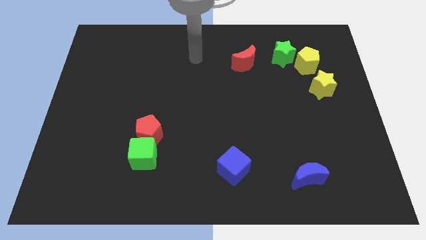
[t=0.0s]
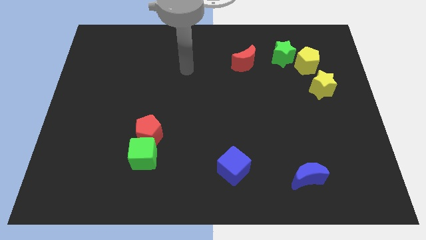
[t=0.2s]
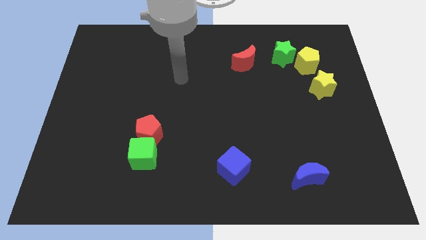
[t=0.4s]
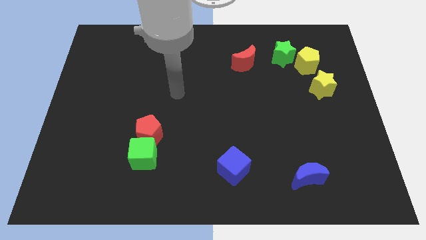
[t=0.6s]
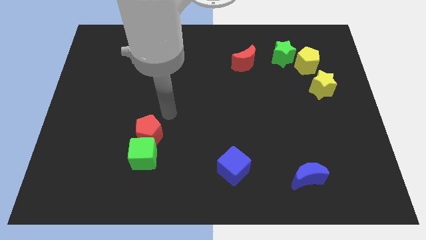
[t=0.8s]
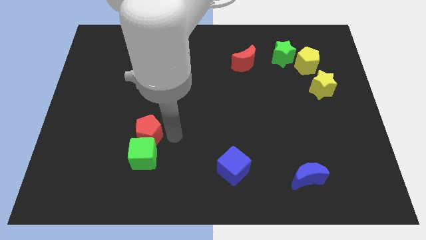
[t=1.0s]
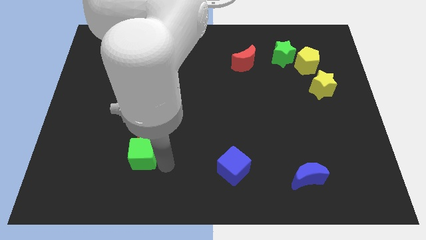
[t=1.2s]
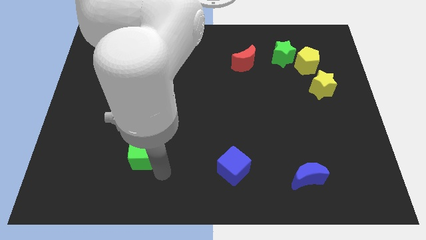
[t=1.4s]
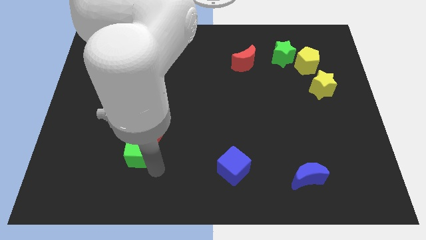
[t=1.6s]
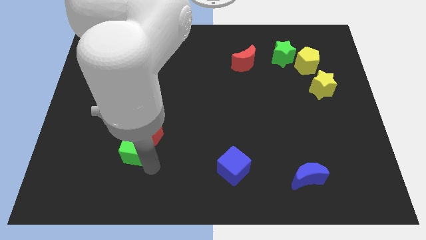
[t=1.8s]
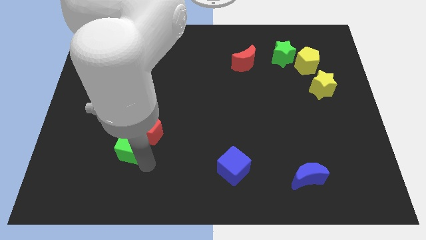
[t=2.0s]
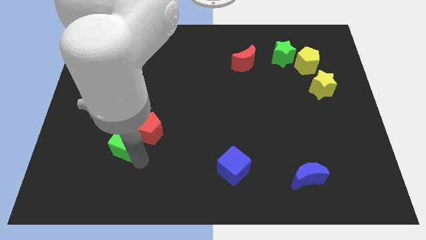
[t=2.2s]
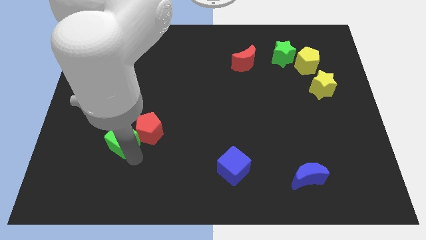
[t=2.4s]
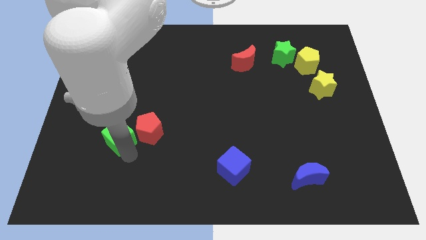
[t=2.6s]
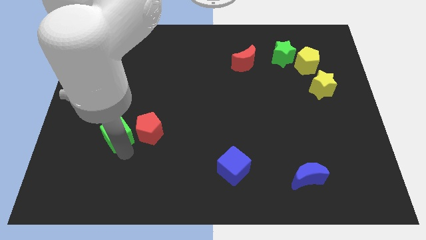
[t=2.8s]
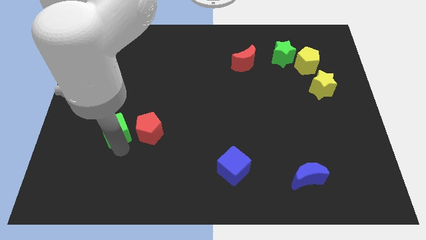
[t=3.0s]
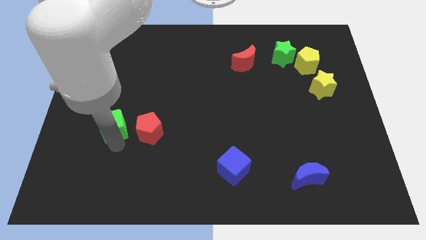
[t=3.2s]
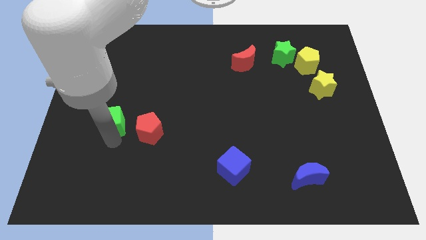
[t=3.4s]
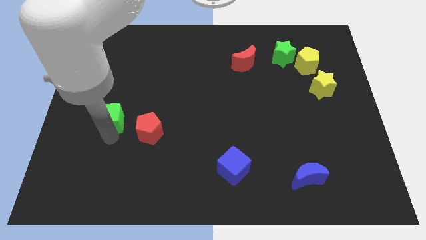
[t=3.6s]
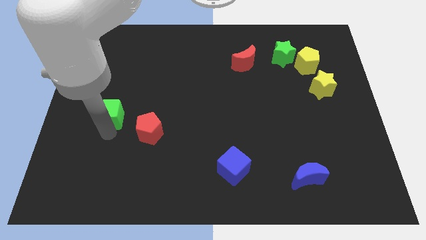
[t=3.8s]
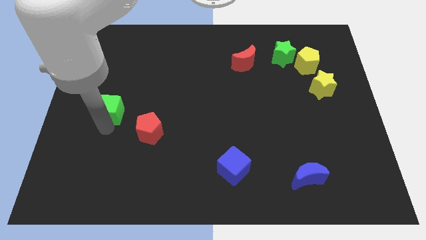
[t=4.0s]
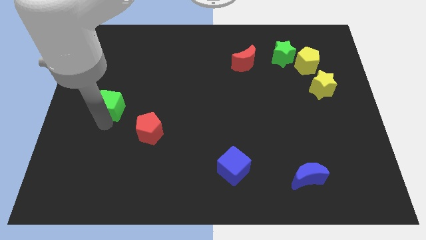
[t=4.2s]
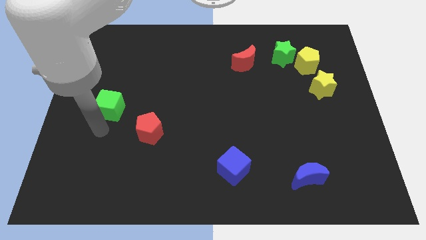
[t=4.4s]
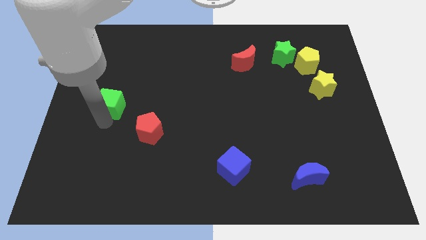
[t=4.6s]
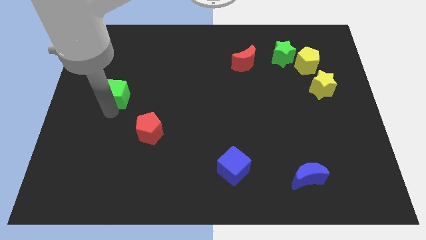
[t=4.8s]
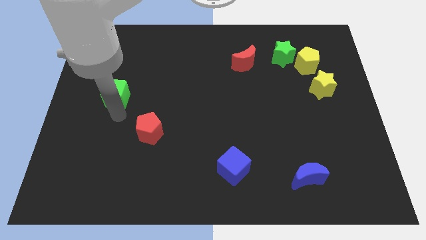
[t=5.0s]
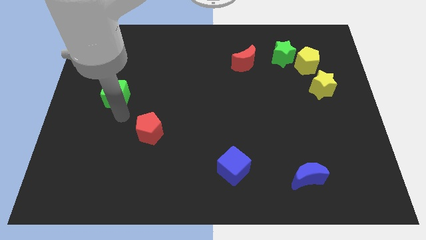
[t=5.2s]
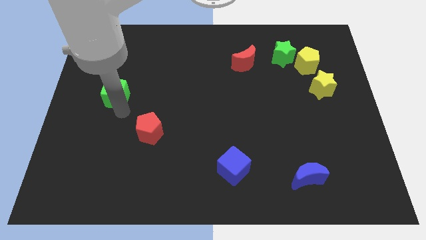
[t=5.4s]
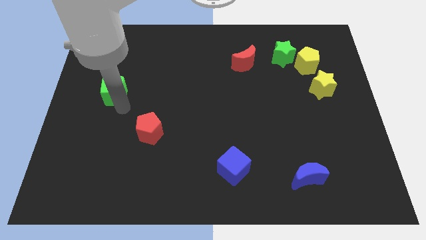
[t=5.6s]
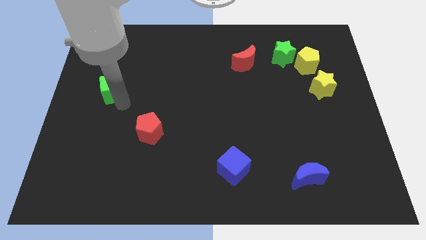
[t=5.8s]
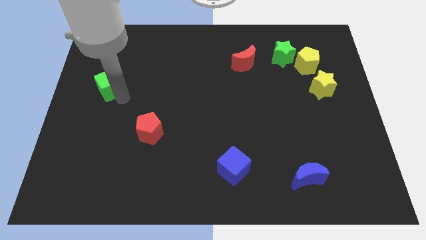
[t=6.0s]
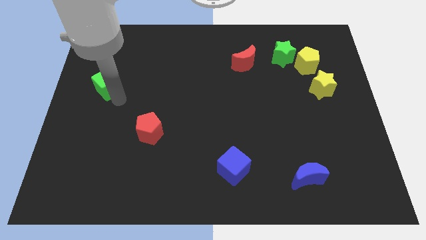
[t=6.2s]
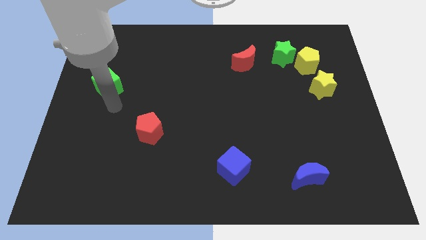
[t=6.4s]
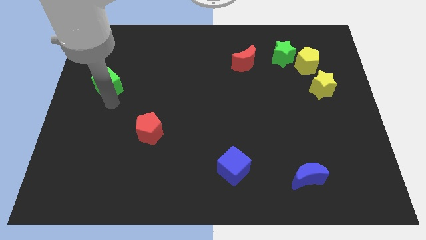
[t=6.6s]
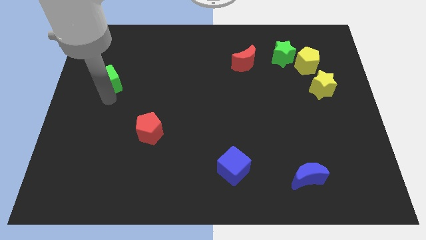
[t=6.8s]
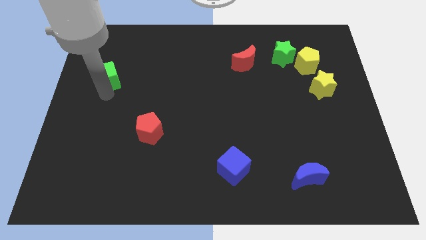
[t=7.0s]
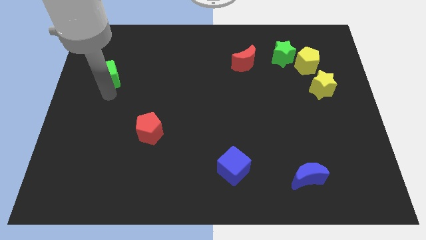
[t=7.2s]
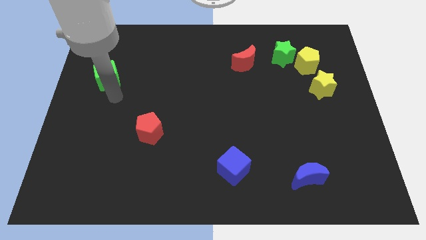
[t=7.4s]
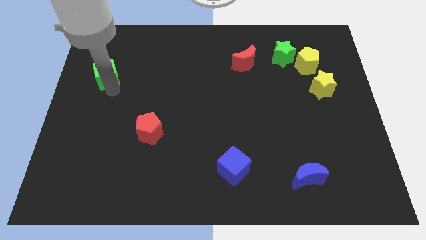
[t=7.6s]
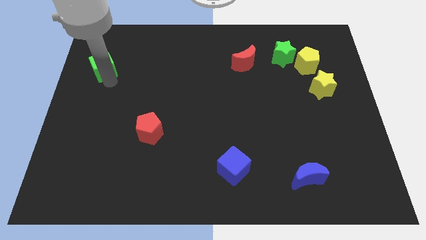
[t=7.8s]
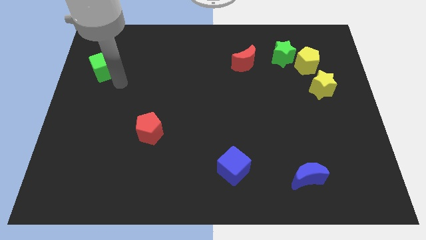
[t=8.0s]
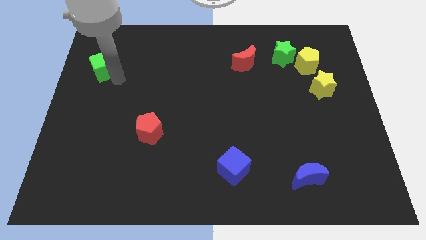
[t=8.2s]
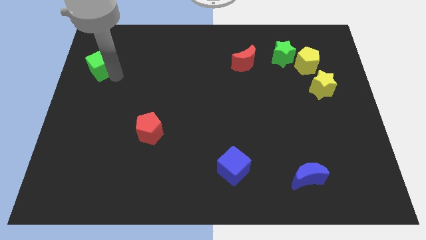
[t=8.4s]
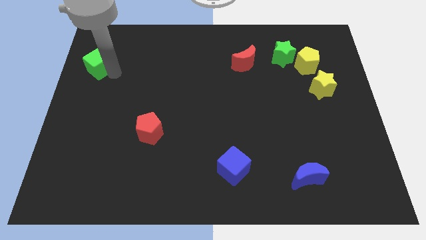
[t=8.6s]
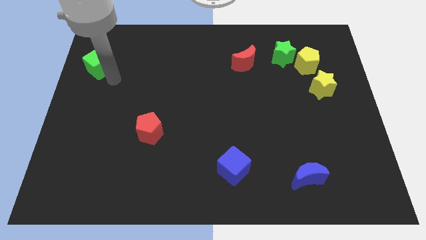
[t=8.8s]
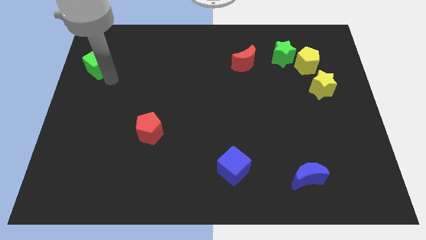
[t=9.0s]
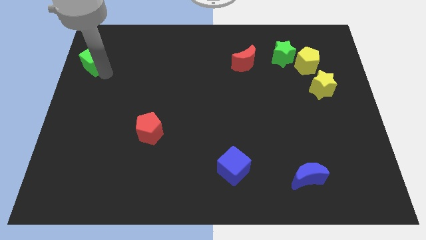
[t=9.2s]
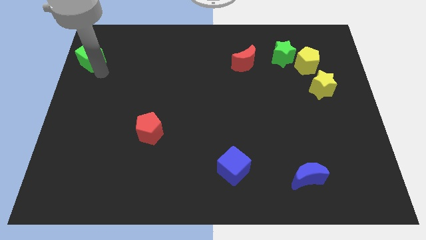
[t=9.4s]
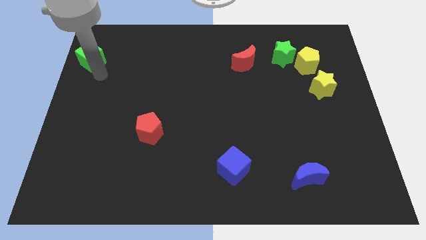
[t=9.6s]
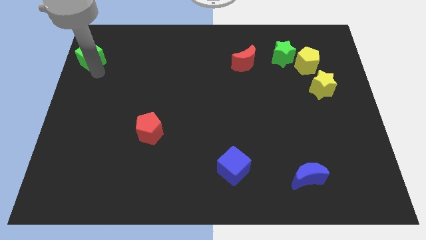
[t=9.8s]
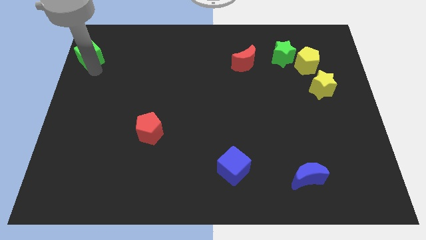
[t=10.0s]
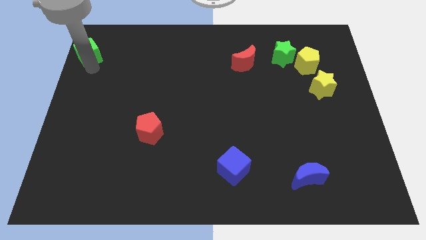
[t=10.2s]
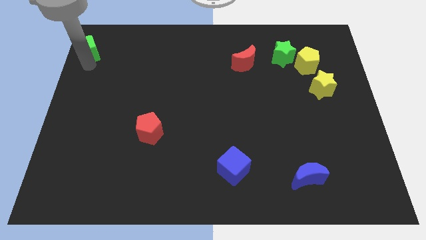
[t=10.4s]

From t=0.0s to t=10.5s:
put the green cube to the top left of the board

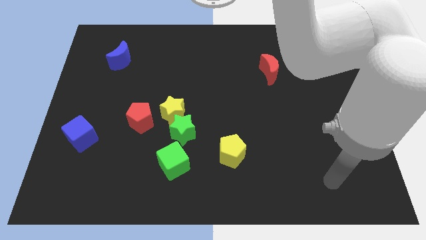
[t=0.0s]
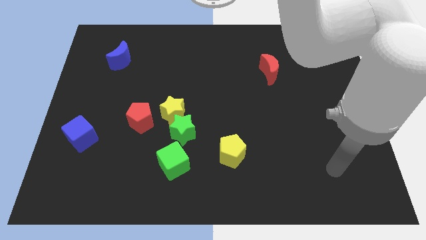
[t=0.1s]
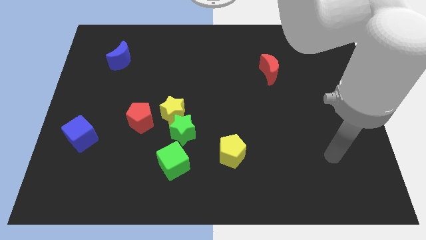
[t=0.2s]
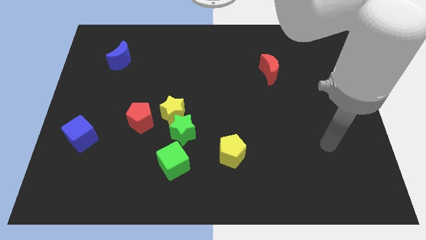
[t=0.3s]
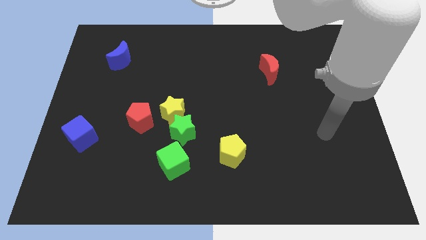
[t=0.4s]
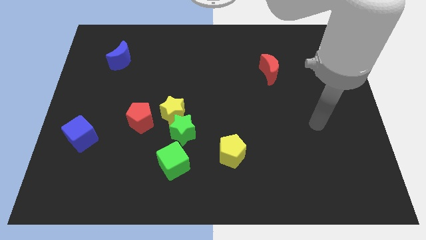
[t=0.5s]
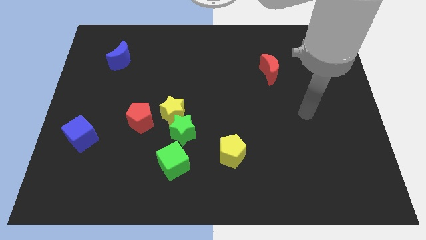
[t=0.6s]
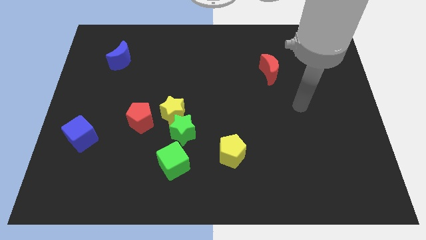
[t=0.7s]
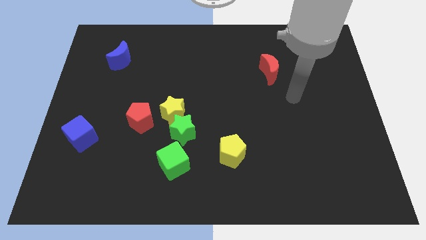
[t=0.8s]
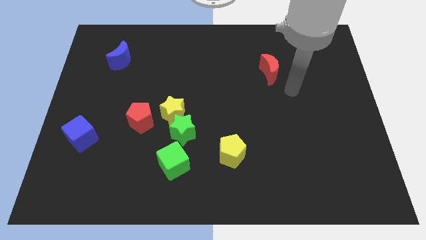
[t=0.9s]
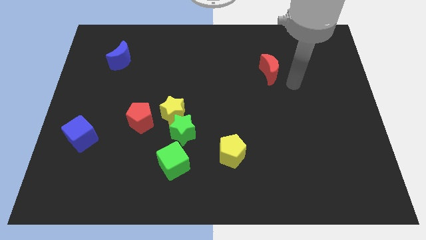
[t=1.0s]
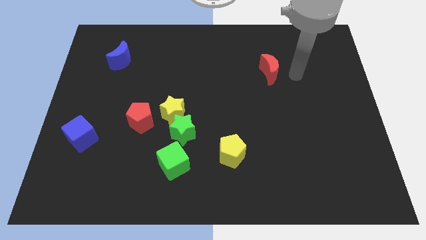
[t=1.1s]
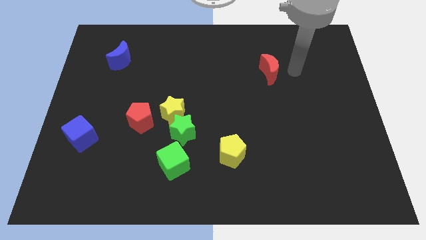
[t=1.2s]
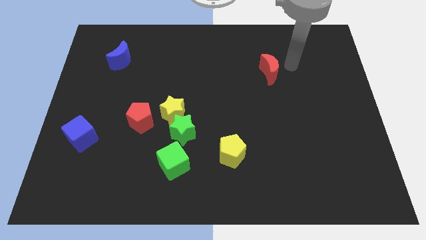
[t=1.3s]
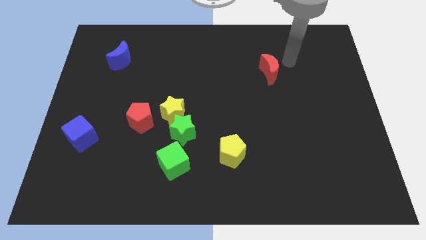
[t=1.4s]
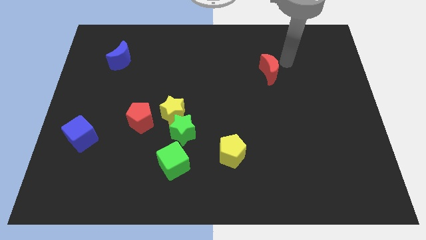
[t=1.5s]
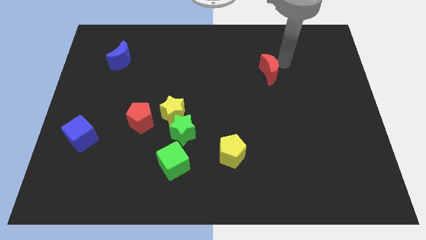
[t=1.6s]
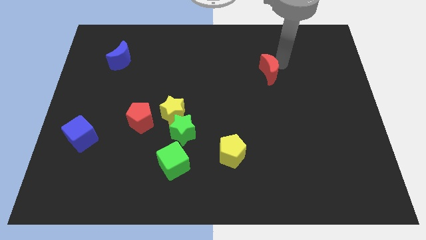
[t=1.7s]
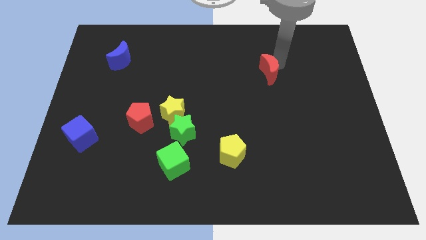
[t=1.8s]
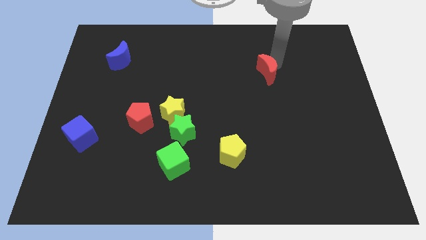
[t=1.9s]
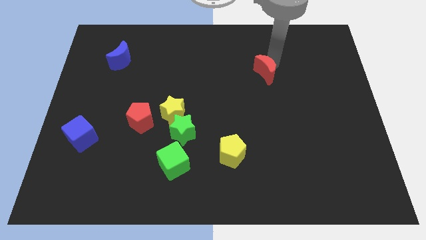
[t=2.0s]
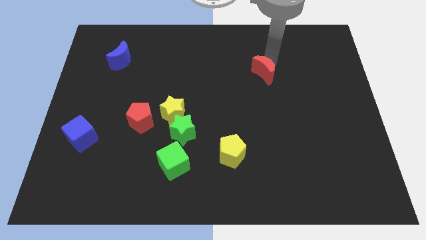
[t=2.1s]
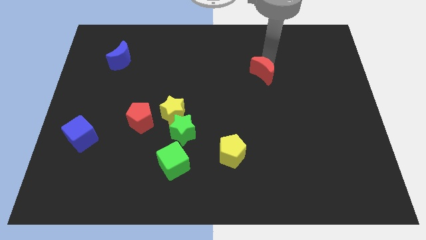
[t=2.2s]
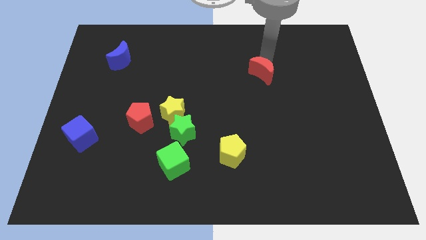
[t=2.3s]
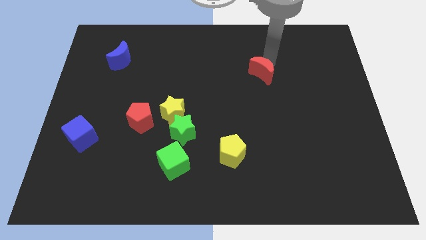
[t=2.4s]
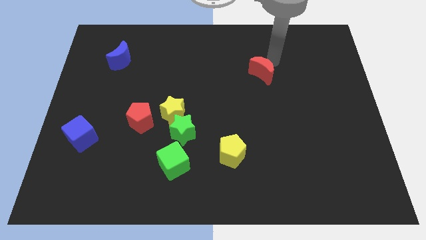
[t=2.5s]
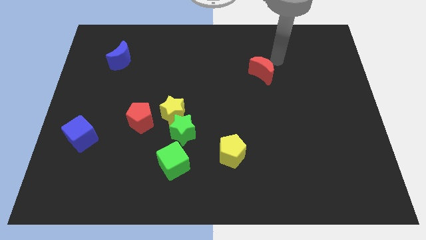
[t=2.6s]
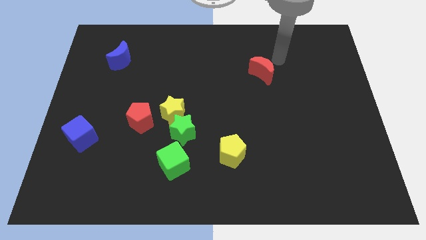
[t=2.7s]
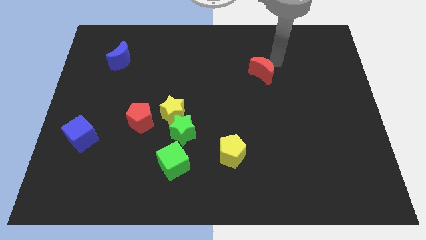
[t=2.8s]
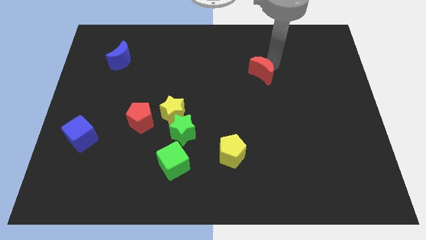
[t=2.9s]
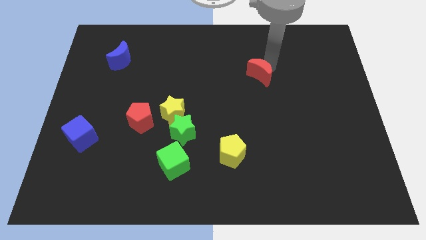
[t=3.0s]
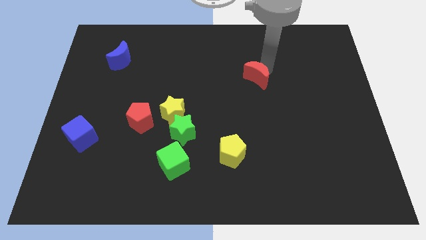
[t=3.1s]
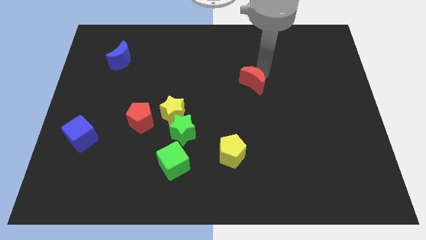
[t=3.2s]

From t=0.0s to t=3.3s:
push the red moon to the middle of the board
